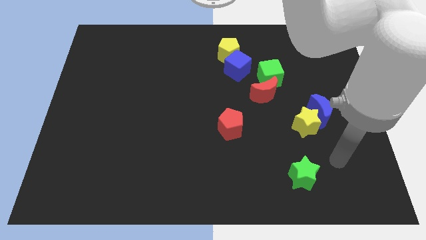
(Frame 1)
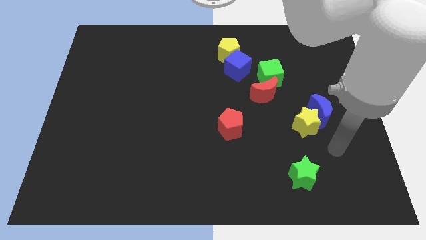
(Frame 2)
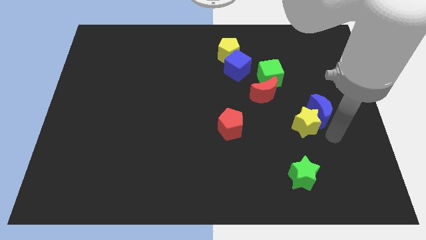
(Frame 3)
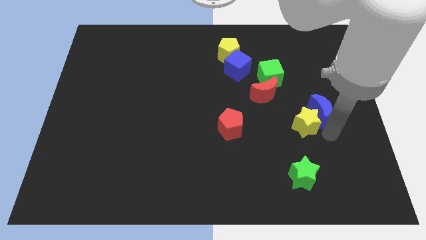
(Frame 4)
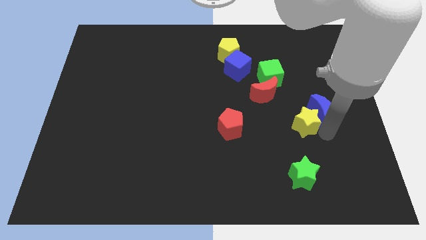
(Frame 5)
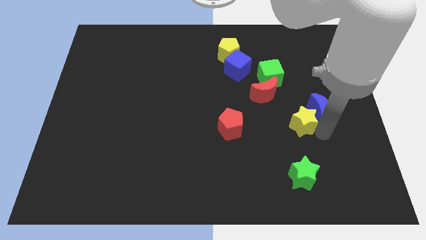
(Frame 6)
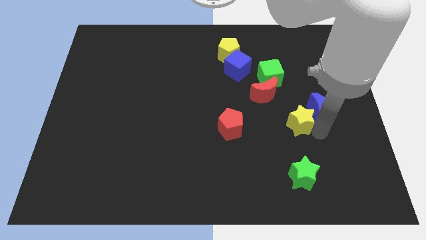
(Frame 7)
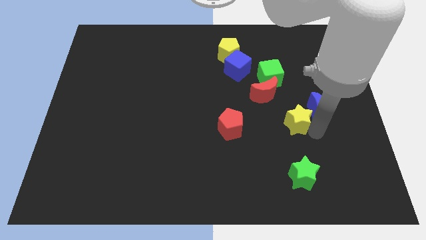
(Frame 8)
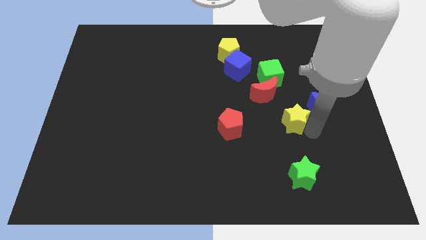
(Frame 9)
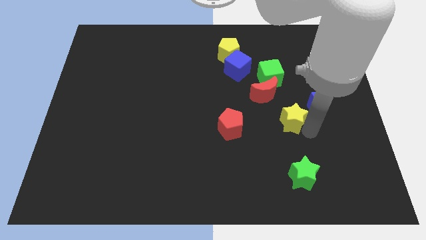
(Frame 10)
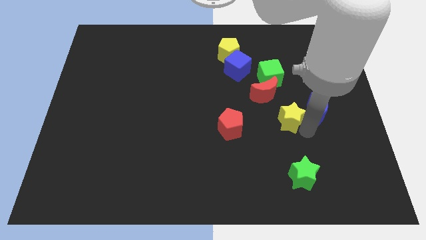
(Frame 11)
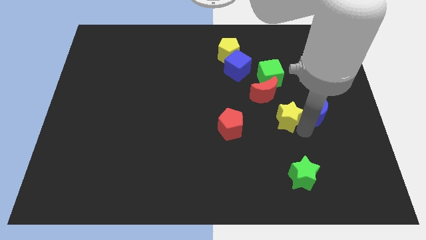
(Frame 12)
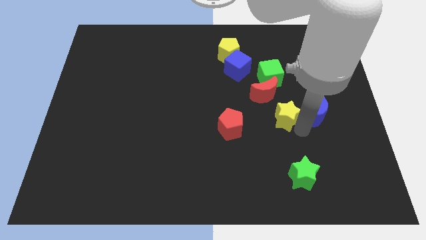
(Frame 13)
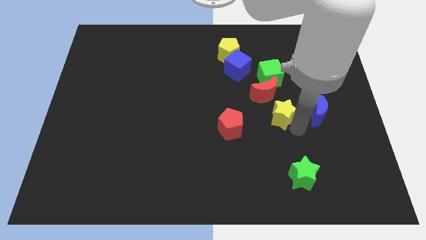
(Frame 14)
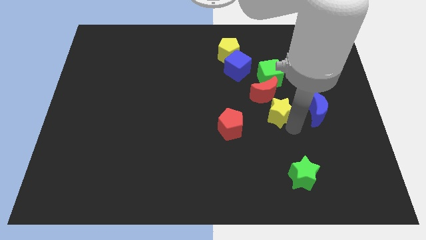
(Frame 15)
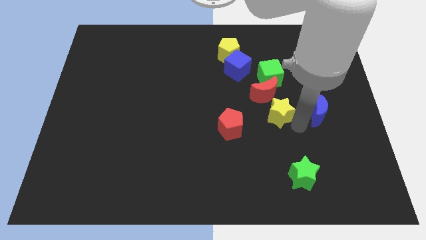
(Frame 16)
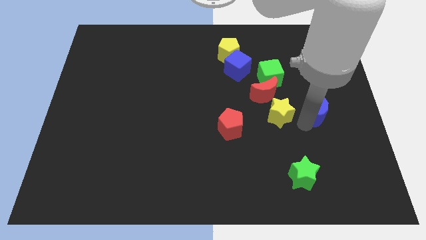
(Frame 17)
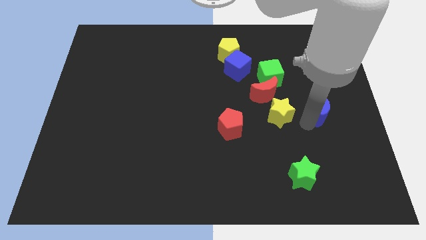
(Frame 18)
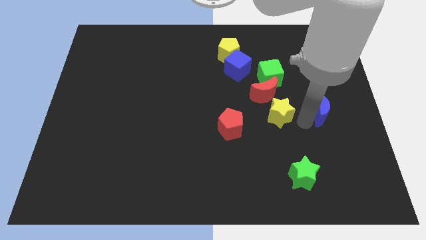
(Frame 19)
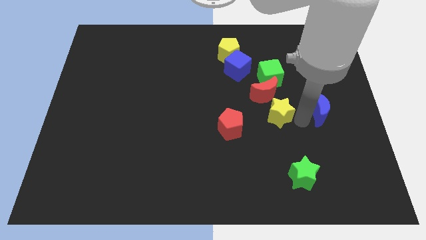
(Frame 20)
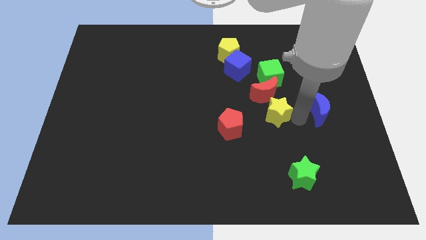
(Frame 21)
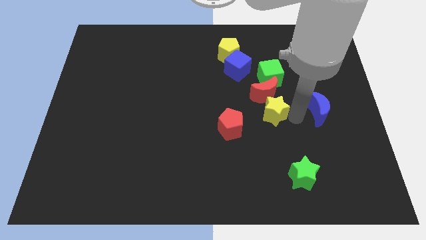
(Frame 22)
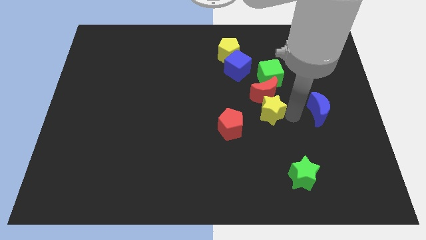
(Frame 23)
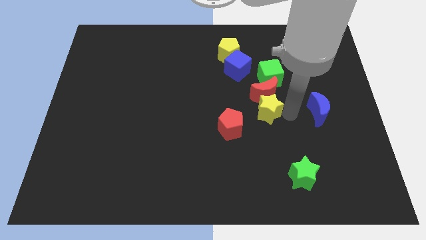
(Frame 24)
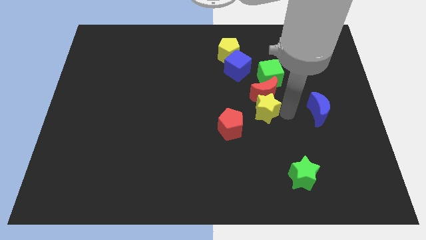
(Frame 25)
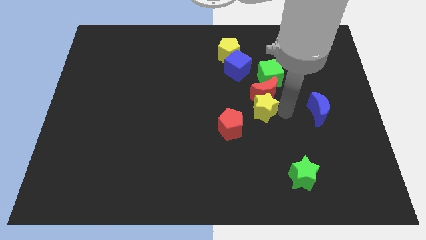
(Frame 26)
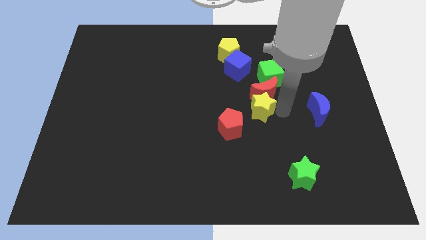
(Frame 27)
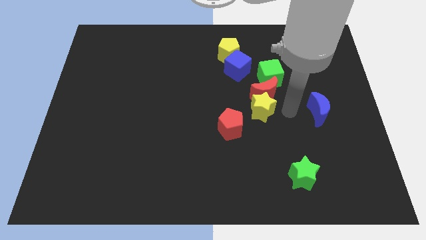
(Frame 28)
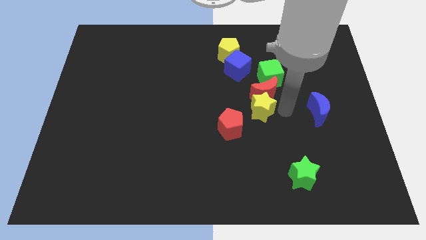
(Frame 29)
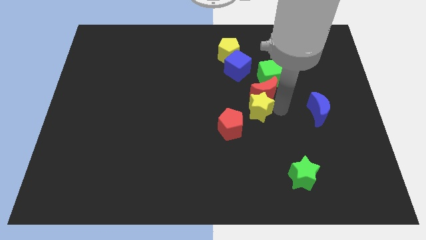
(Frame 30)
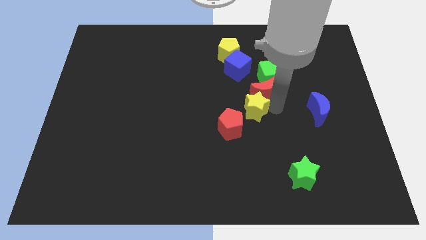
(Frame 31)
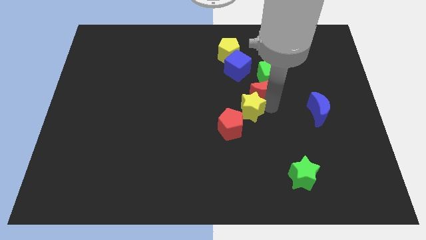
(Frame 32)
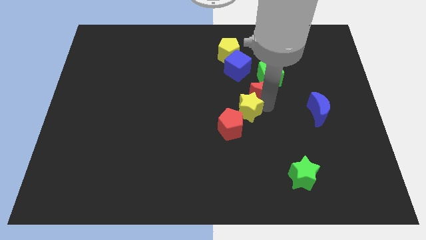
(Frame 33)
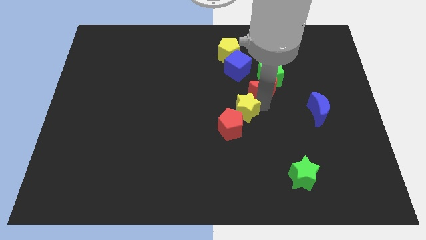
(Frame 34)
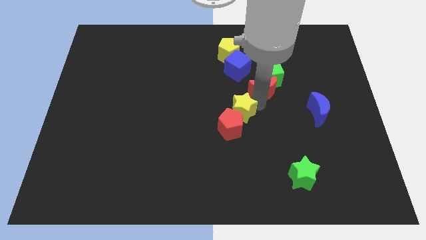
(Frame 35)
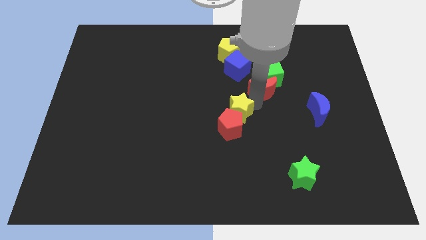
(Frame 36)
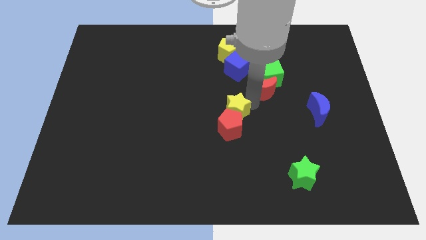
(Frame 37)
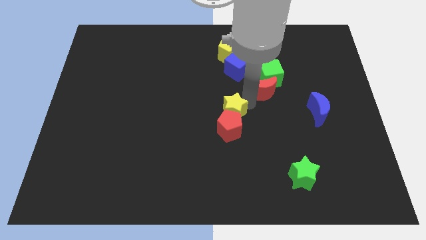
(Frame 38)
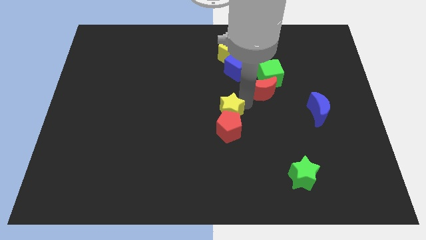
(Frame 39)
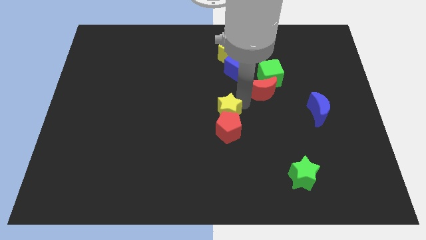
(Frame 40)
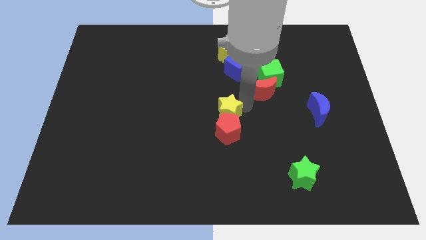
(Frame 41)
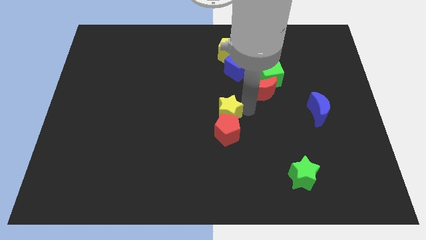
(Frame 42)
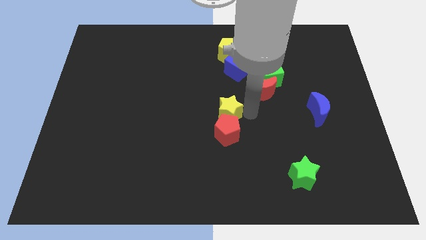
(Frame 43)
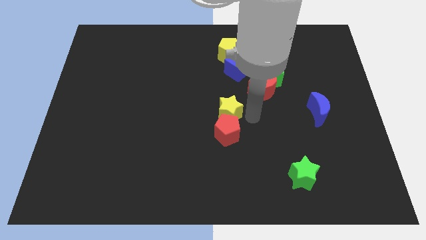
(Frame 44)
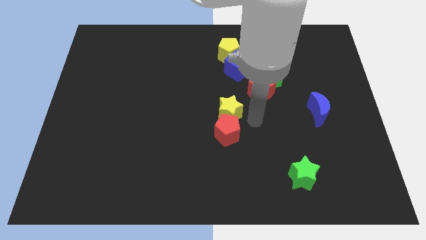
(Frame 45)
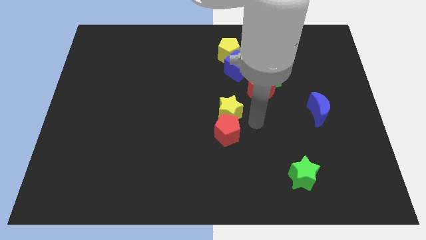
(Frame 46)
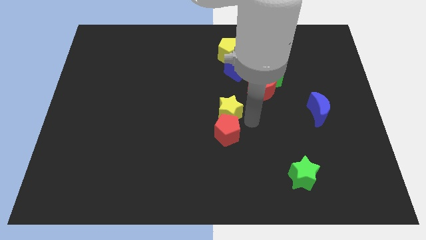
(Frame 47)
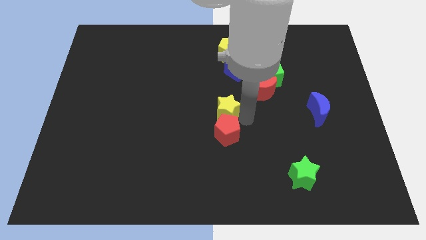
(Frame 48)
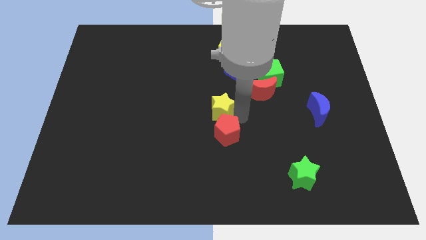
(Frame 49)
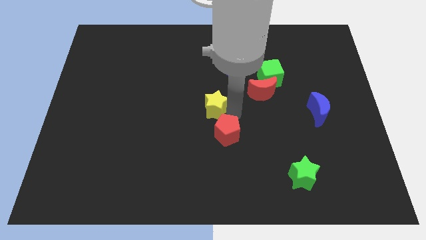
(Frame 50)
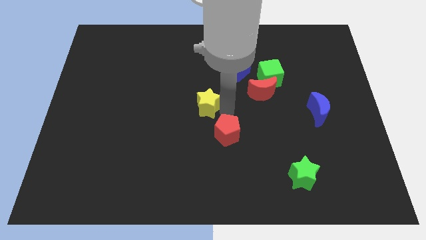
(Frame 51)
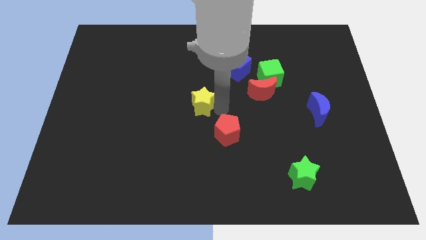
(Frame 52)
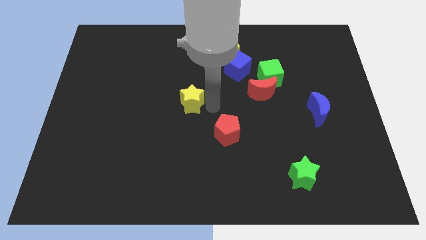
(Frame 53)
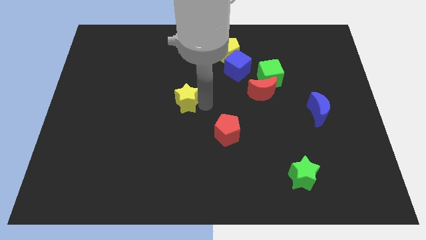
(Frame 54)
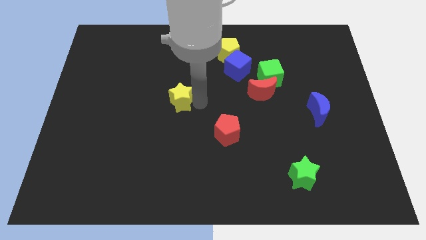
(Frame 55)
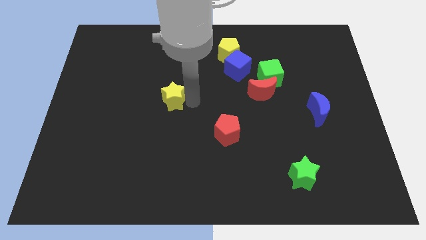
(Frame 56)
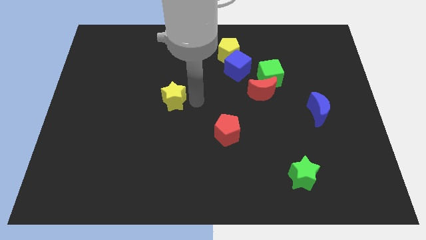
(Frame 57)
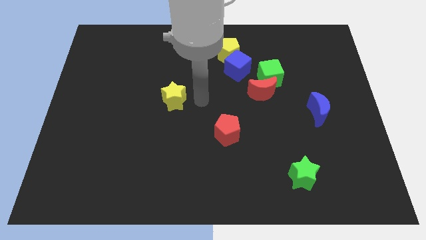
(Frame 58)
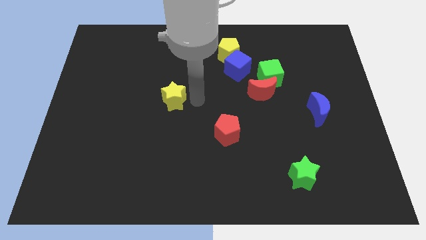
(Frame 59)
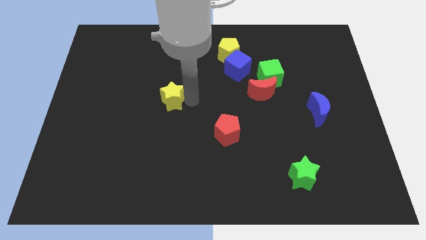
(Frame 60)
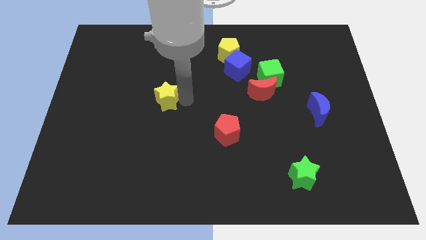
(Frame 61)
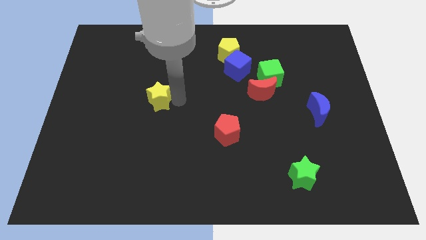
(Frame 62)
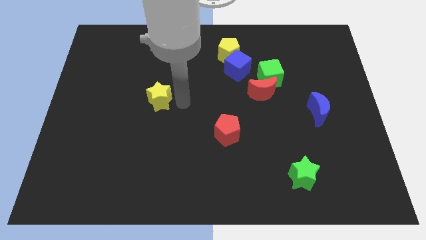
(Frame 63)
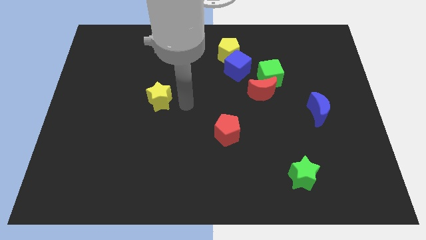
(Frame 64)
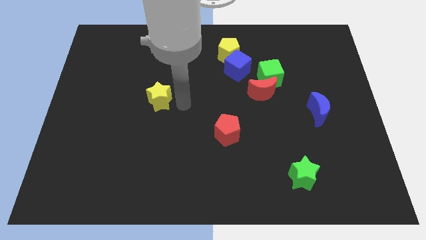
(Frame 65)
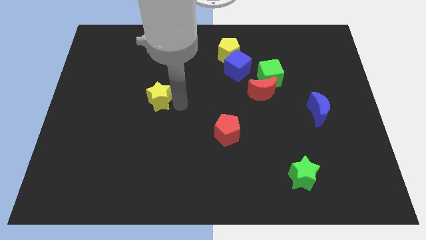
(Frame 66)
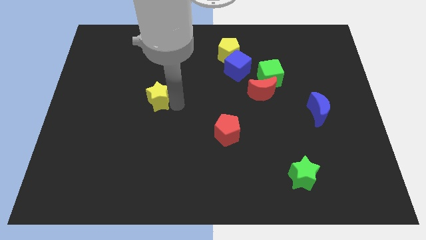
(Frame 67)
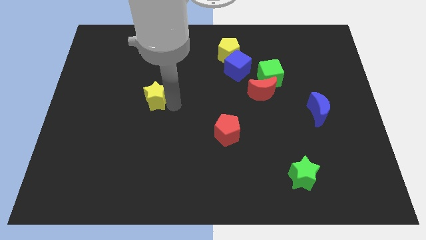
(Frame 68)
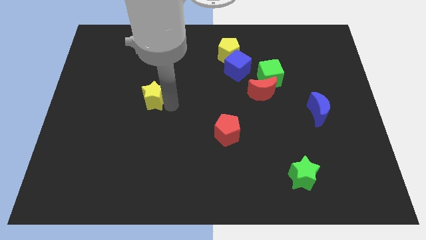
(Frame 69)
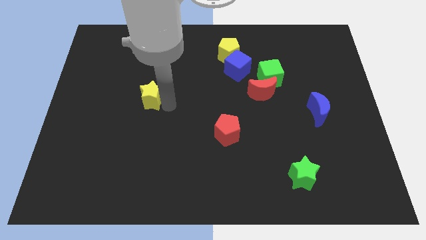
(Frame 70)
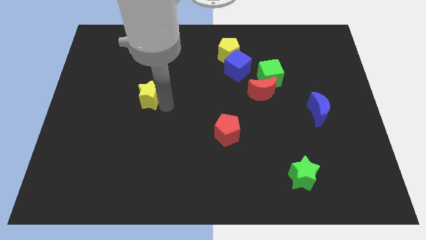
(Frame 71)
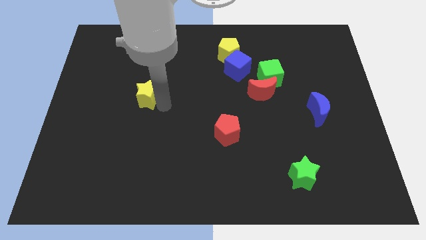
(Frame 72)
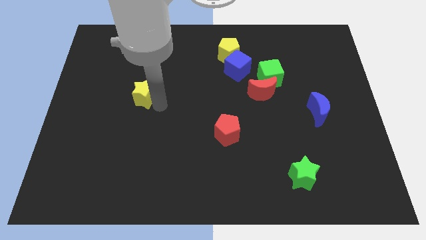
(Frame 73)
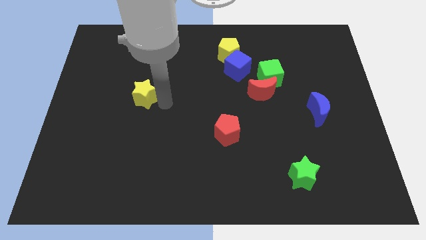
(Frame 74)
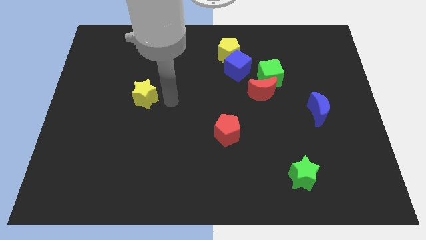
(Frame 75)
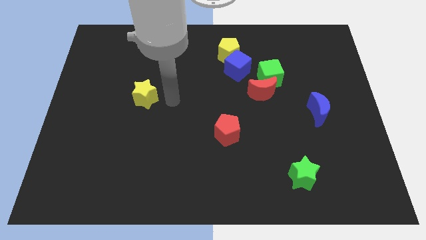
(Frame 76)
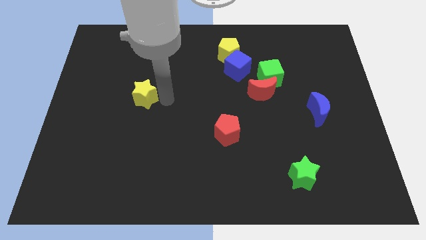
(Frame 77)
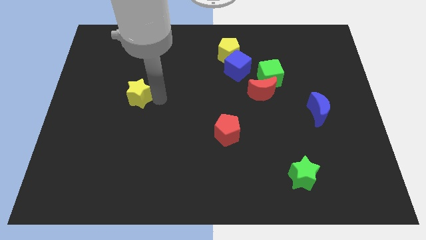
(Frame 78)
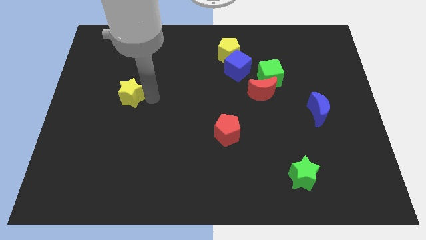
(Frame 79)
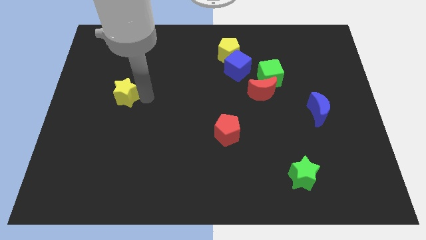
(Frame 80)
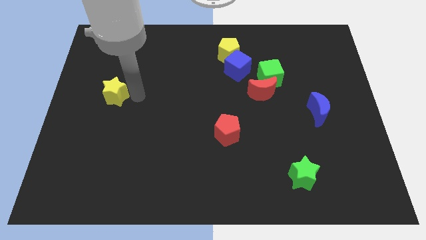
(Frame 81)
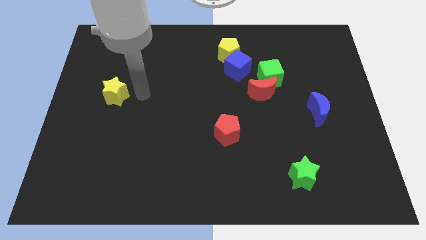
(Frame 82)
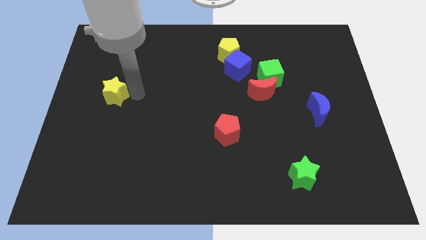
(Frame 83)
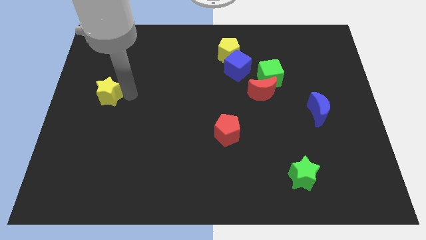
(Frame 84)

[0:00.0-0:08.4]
slide the yellow star to the center left
